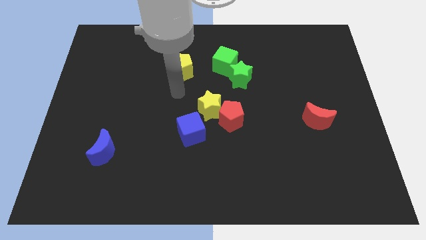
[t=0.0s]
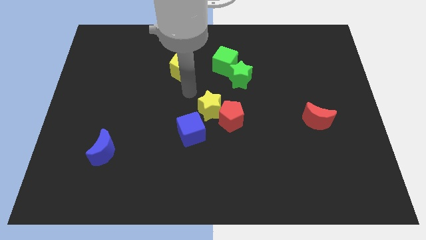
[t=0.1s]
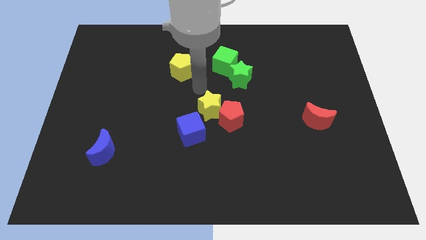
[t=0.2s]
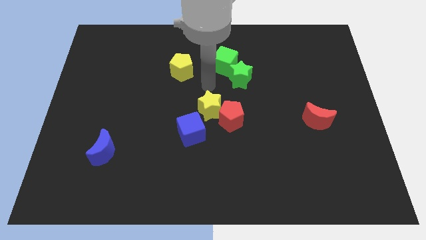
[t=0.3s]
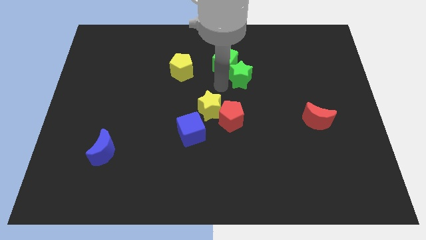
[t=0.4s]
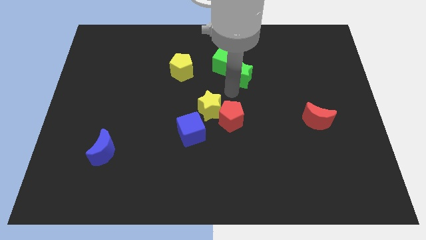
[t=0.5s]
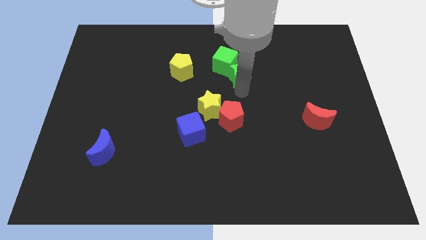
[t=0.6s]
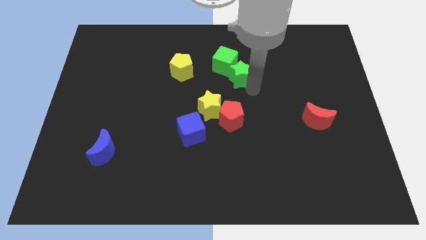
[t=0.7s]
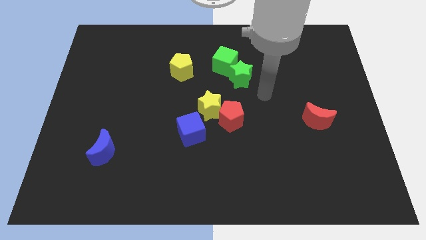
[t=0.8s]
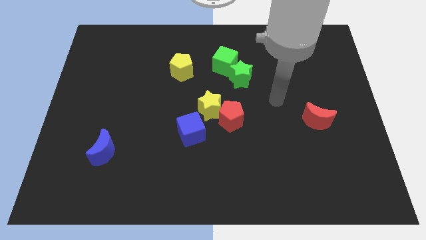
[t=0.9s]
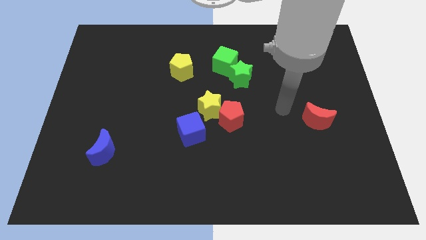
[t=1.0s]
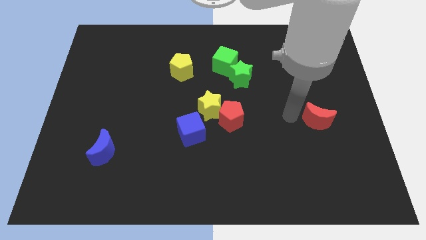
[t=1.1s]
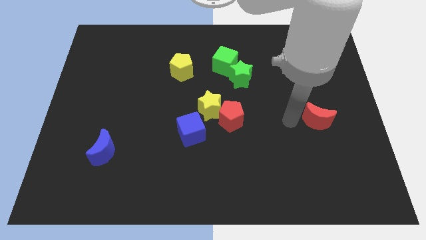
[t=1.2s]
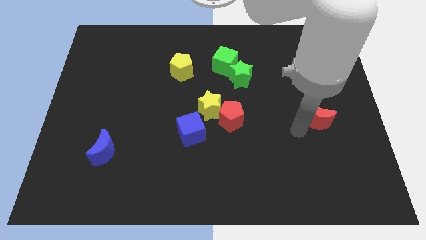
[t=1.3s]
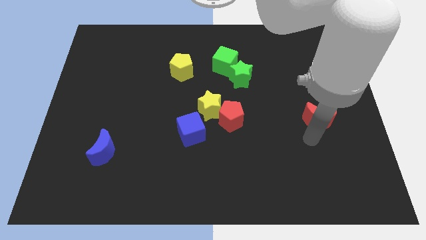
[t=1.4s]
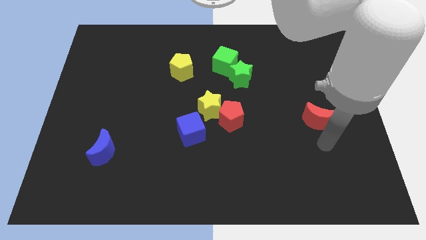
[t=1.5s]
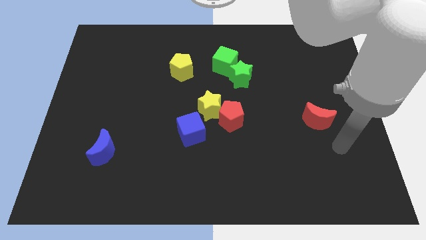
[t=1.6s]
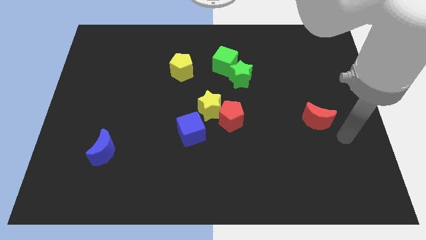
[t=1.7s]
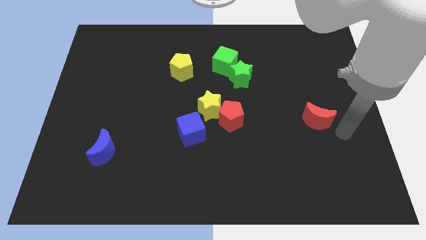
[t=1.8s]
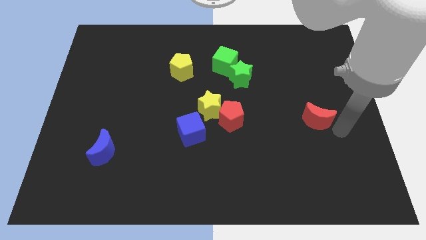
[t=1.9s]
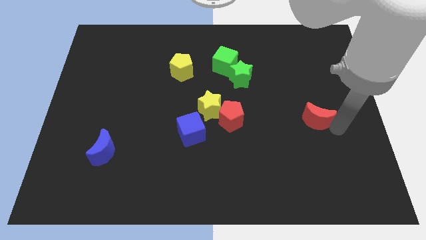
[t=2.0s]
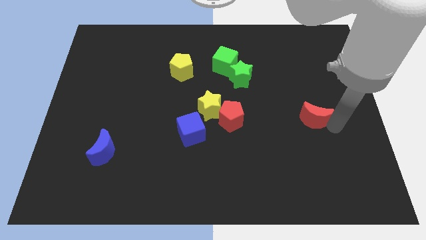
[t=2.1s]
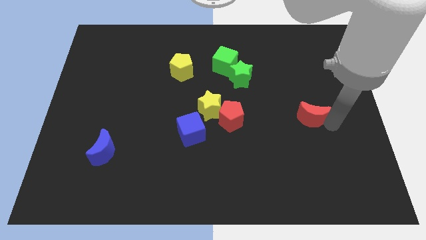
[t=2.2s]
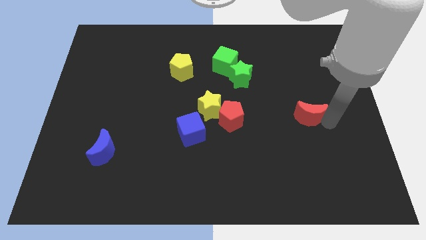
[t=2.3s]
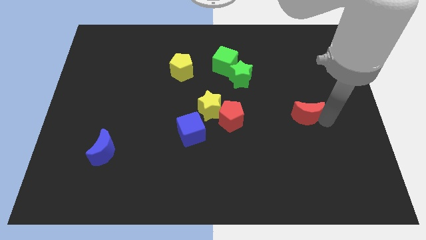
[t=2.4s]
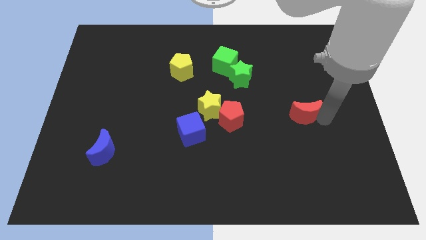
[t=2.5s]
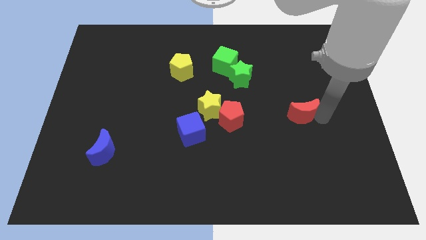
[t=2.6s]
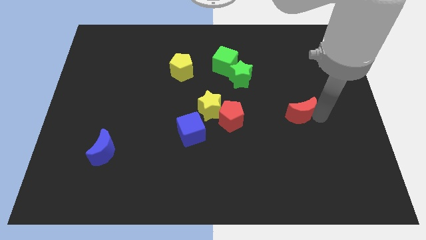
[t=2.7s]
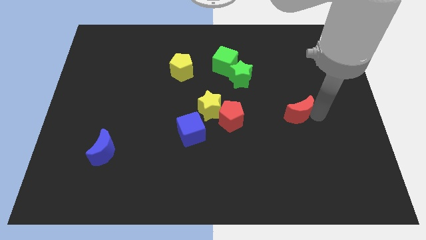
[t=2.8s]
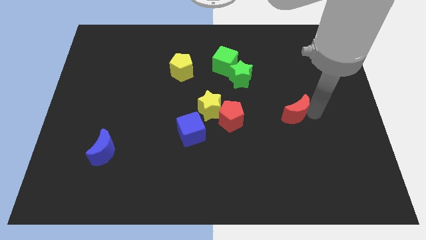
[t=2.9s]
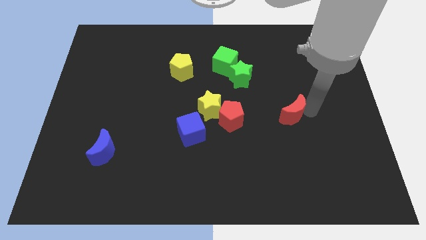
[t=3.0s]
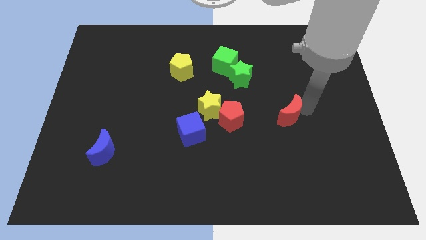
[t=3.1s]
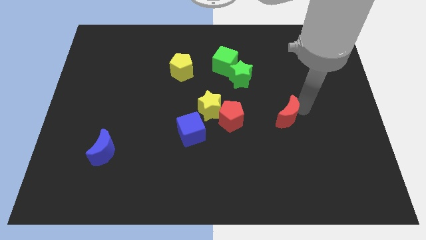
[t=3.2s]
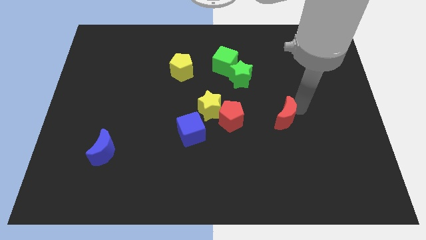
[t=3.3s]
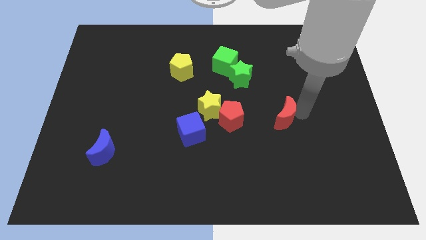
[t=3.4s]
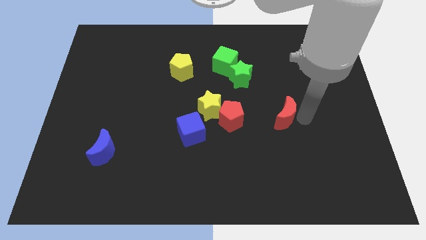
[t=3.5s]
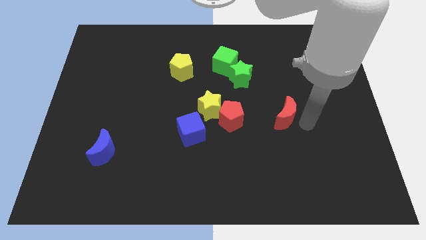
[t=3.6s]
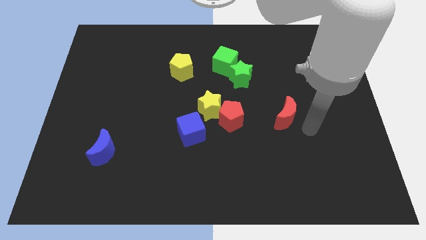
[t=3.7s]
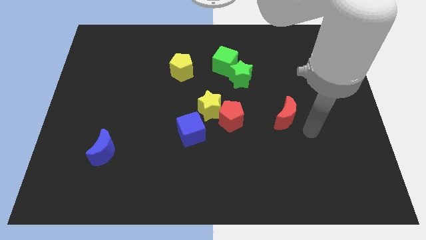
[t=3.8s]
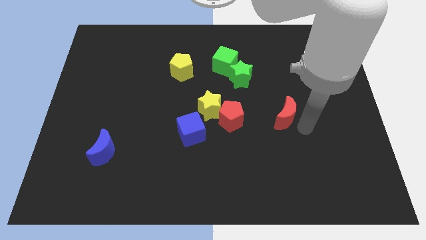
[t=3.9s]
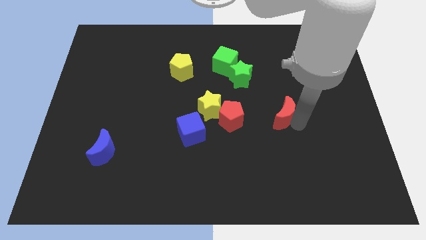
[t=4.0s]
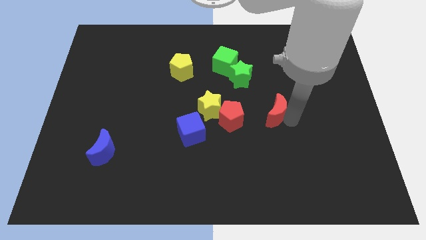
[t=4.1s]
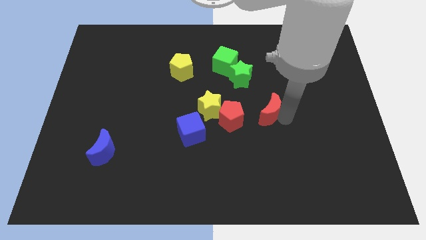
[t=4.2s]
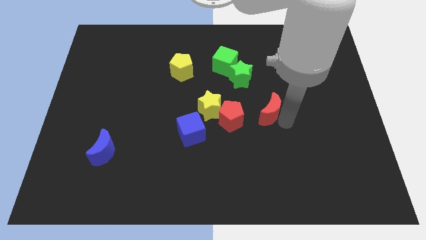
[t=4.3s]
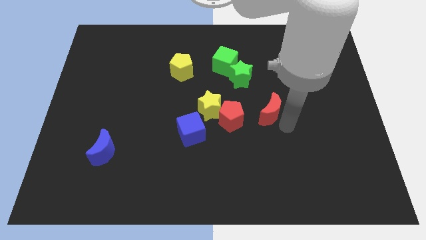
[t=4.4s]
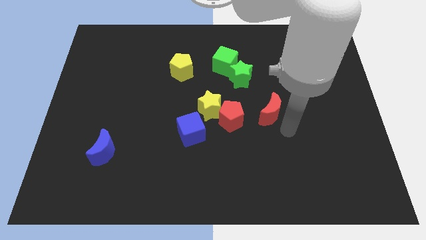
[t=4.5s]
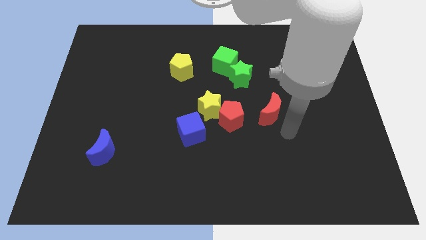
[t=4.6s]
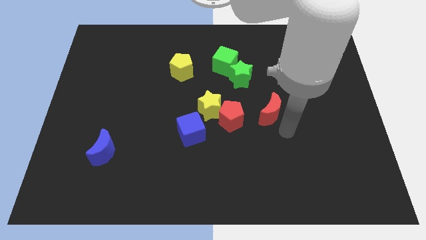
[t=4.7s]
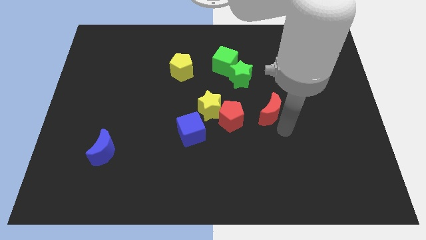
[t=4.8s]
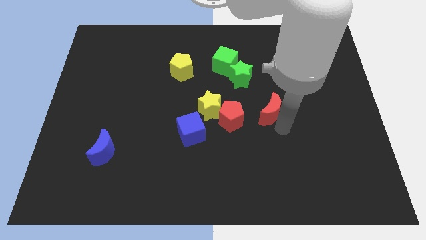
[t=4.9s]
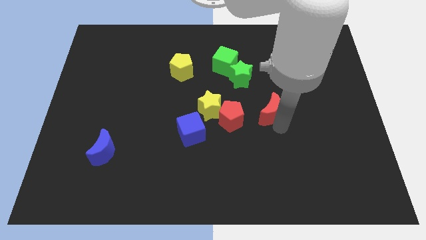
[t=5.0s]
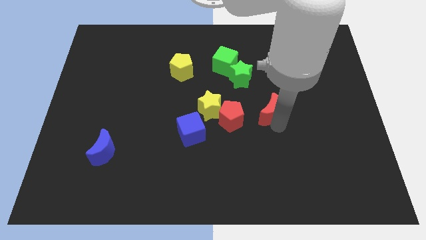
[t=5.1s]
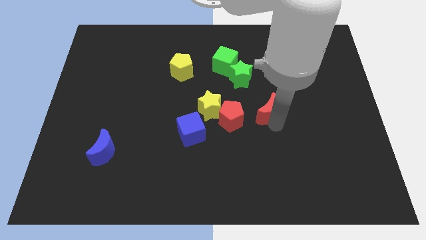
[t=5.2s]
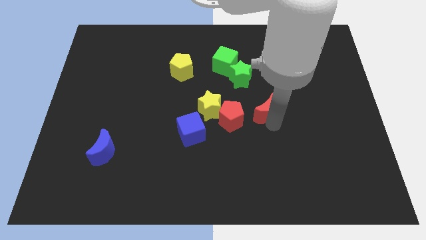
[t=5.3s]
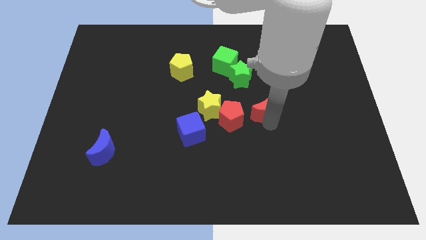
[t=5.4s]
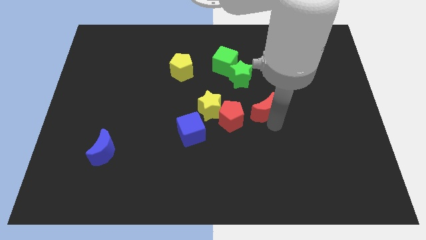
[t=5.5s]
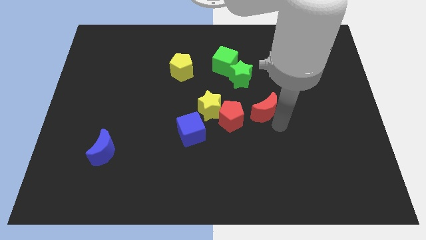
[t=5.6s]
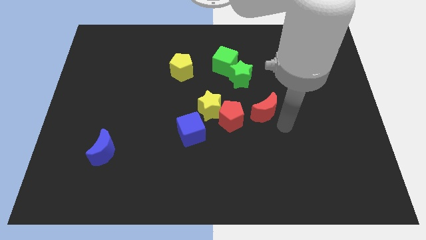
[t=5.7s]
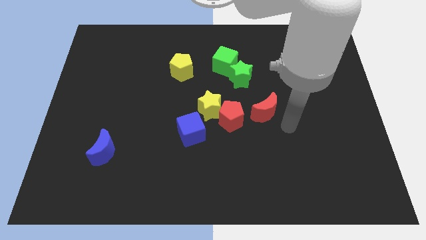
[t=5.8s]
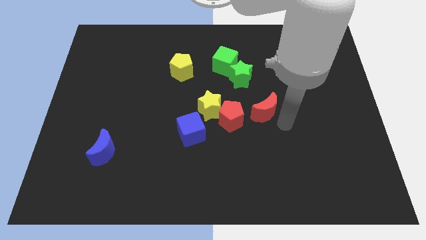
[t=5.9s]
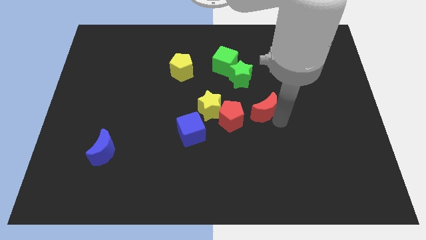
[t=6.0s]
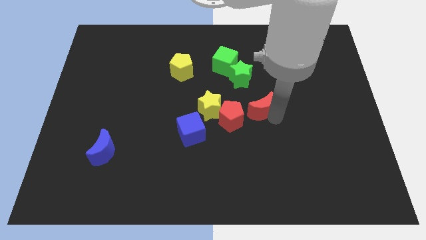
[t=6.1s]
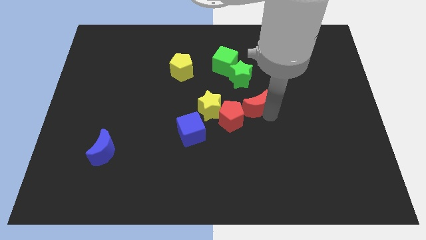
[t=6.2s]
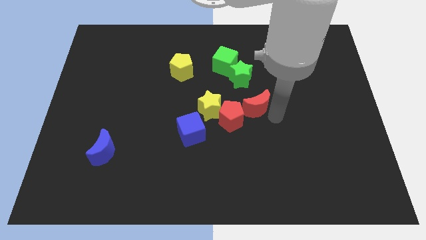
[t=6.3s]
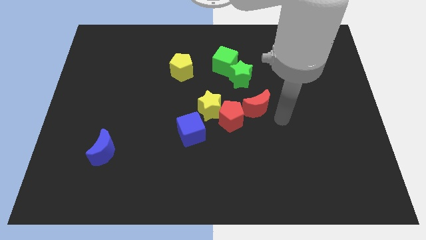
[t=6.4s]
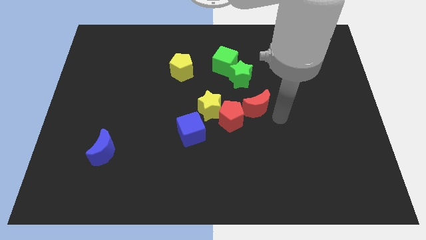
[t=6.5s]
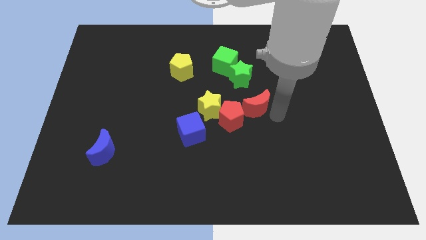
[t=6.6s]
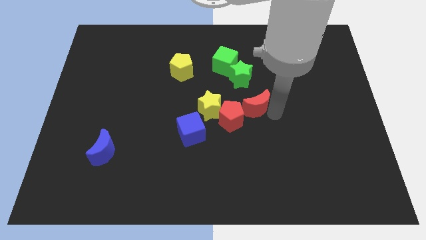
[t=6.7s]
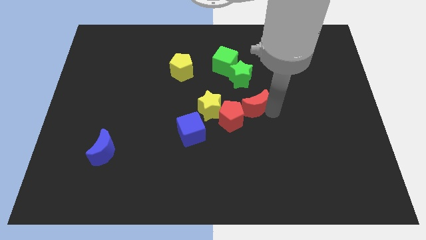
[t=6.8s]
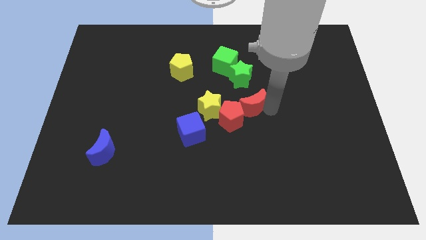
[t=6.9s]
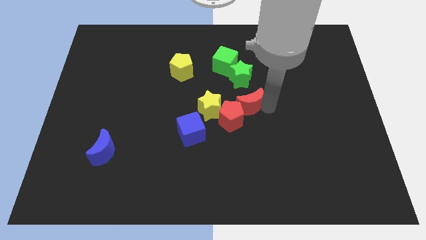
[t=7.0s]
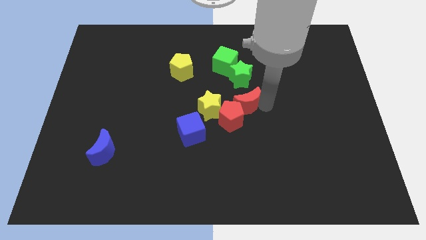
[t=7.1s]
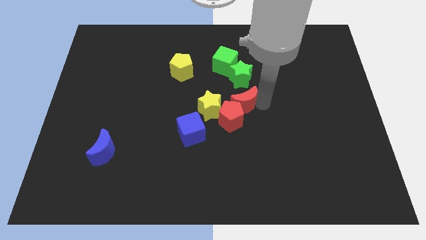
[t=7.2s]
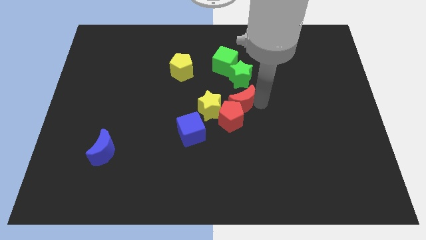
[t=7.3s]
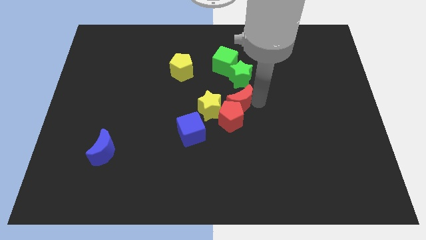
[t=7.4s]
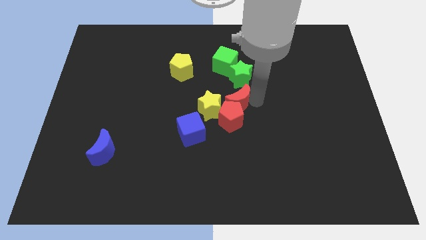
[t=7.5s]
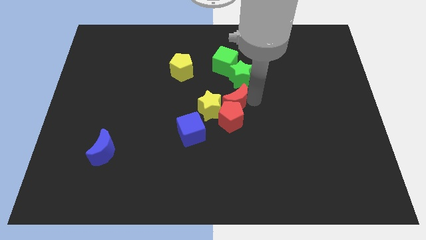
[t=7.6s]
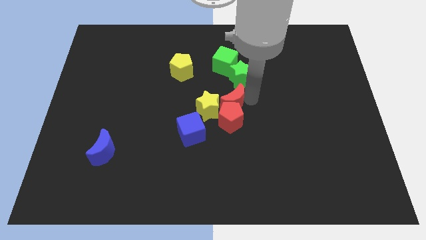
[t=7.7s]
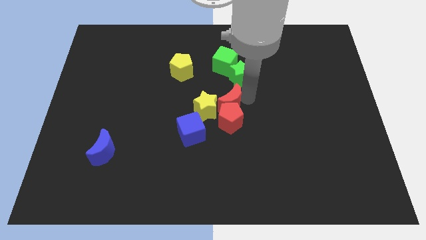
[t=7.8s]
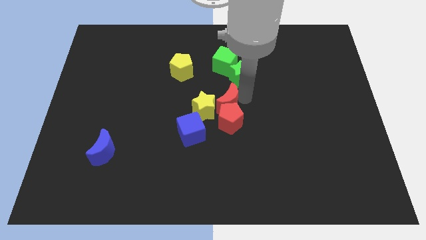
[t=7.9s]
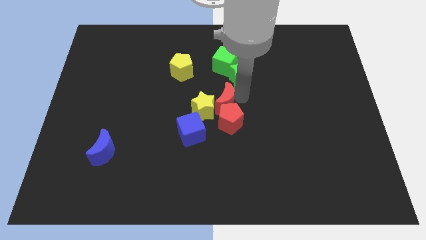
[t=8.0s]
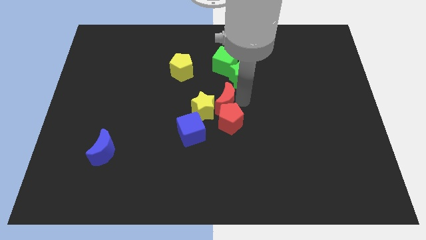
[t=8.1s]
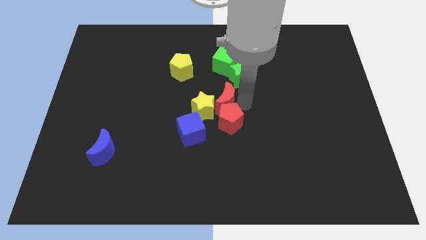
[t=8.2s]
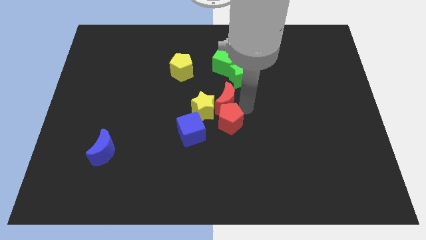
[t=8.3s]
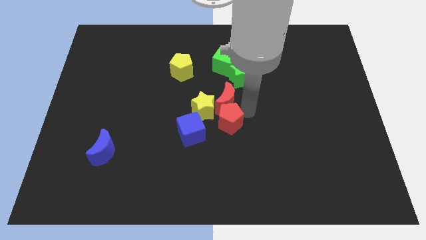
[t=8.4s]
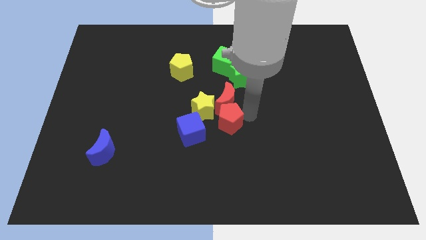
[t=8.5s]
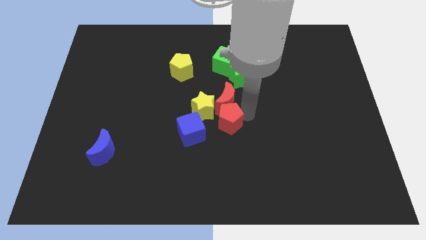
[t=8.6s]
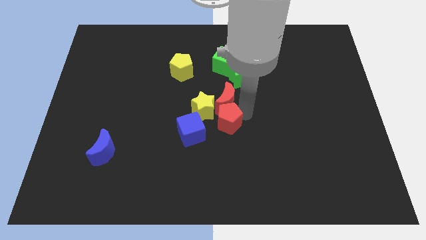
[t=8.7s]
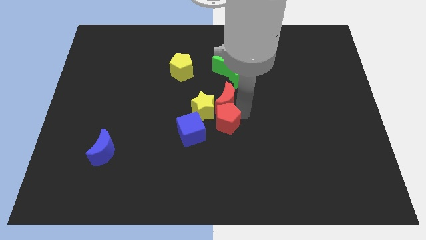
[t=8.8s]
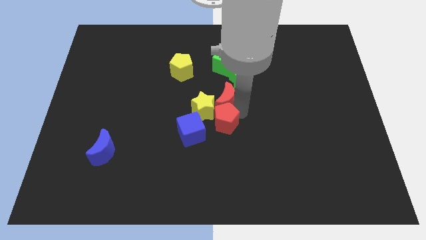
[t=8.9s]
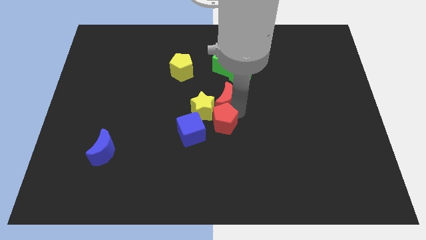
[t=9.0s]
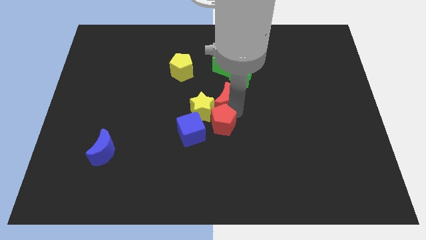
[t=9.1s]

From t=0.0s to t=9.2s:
slide the red moon left
